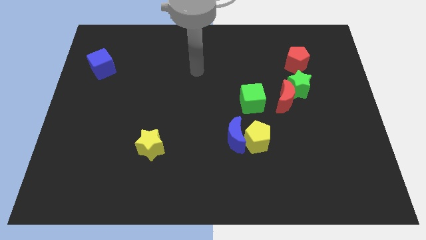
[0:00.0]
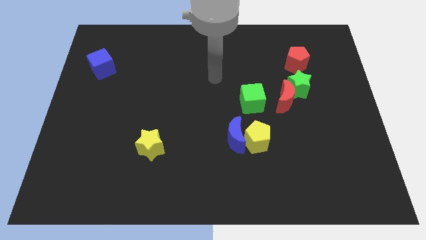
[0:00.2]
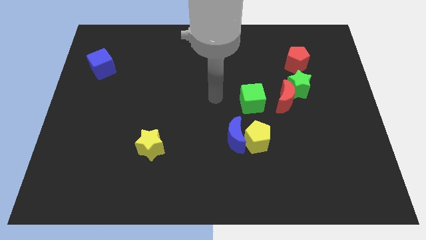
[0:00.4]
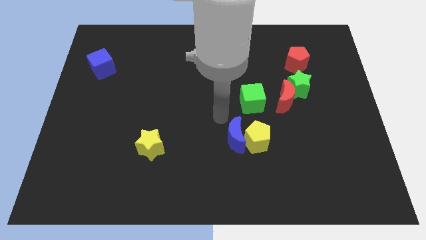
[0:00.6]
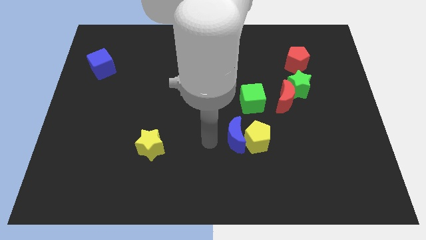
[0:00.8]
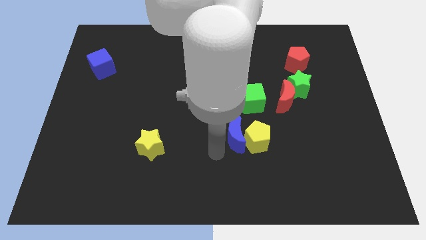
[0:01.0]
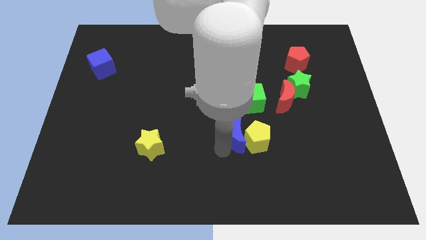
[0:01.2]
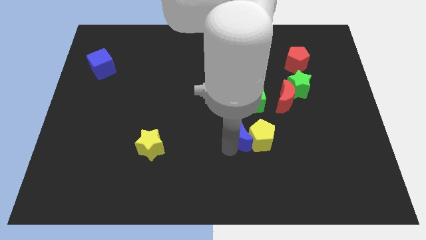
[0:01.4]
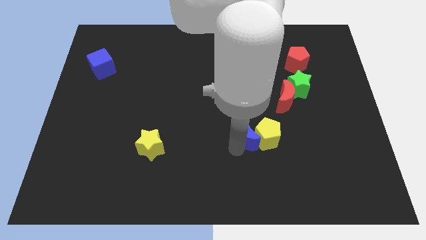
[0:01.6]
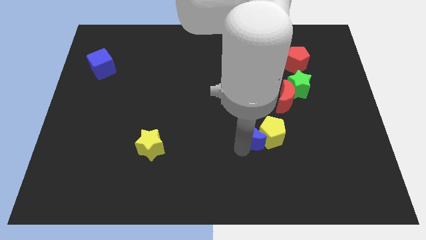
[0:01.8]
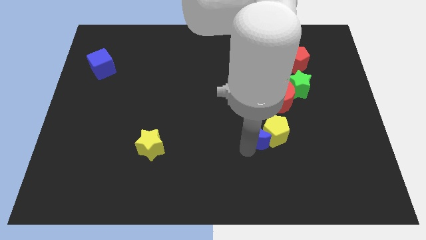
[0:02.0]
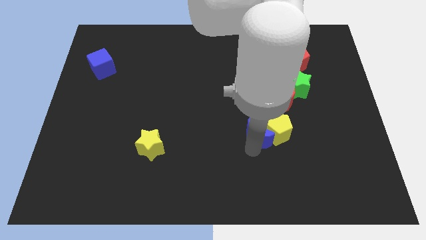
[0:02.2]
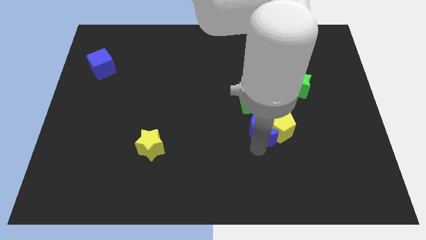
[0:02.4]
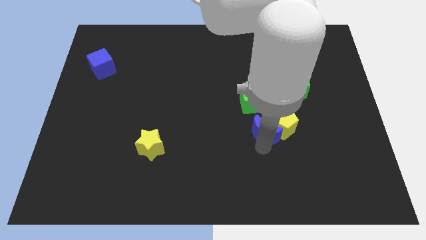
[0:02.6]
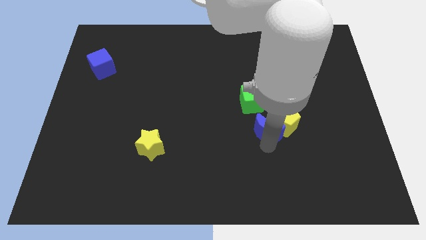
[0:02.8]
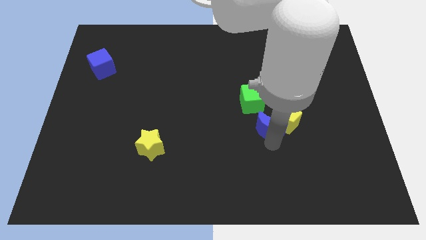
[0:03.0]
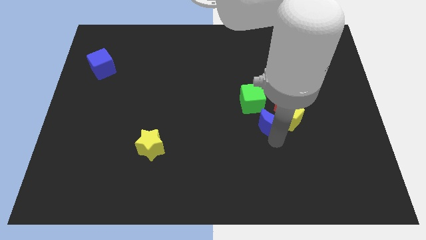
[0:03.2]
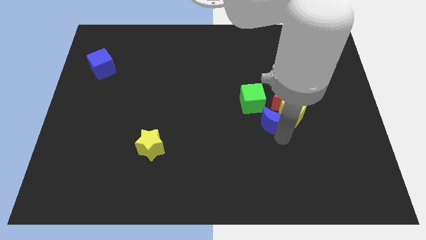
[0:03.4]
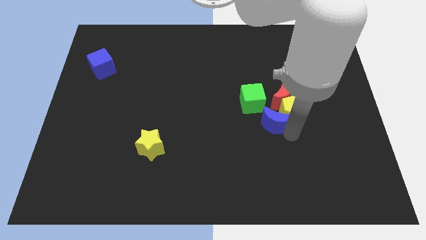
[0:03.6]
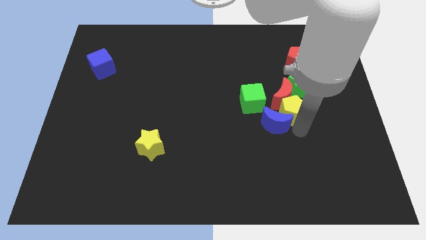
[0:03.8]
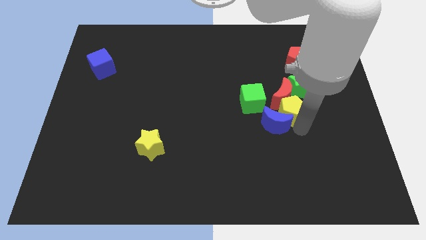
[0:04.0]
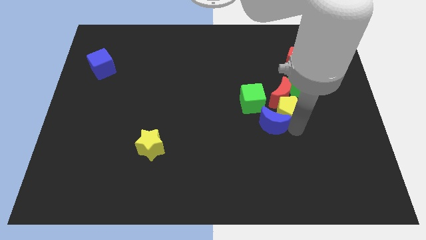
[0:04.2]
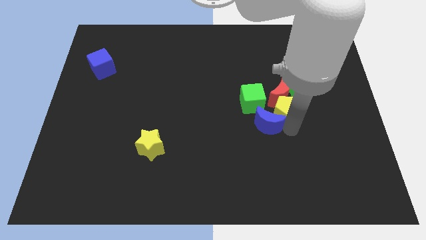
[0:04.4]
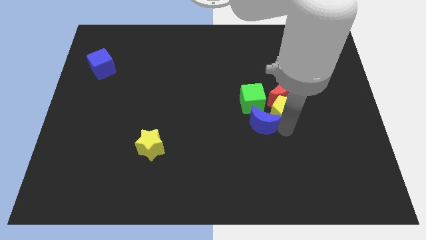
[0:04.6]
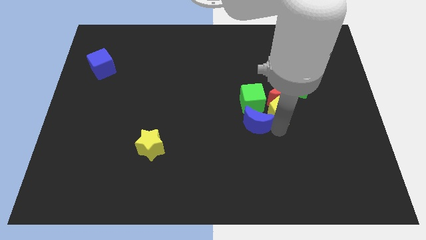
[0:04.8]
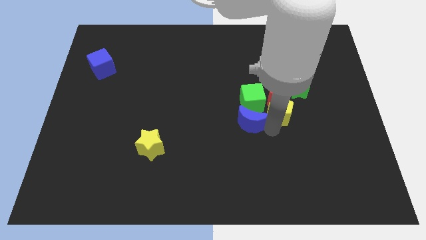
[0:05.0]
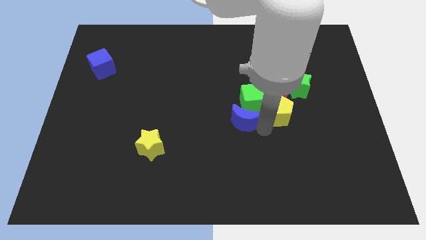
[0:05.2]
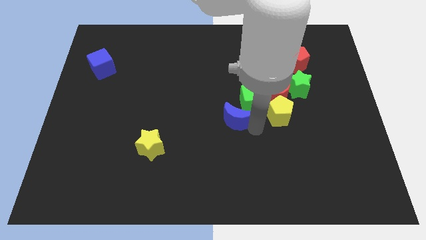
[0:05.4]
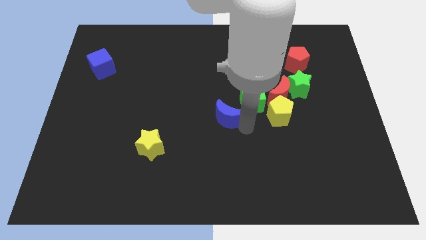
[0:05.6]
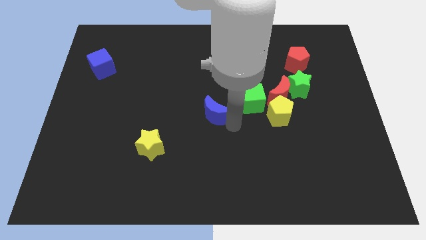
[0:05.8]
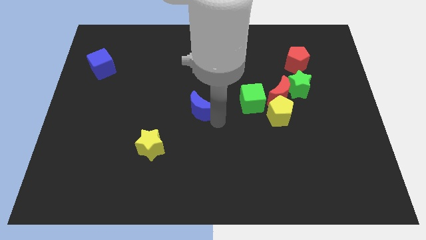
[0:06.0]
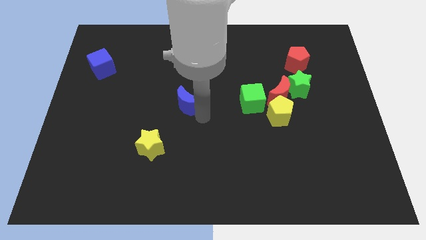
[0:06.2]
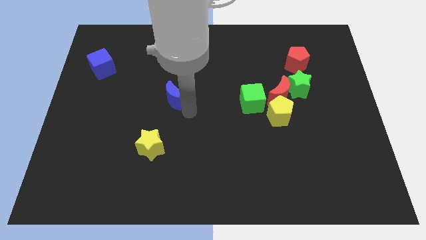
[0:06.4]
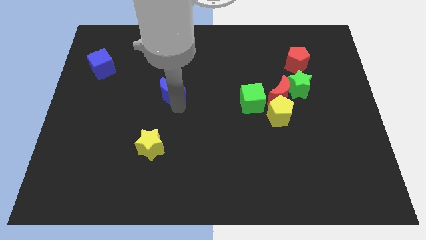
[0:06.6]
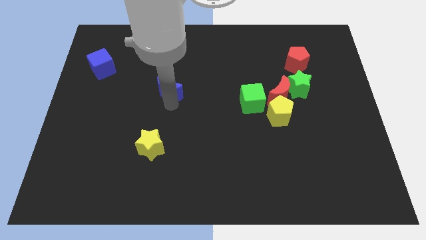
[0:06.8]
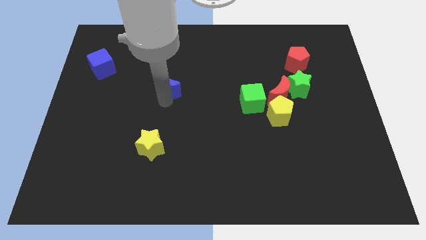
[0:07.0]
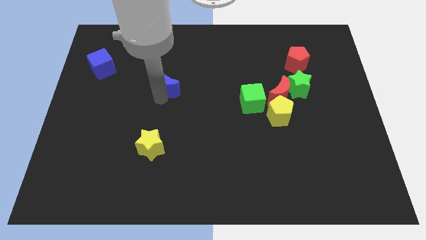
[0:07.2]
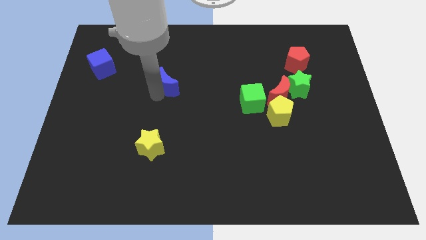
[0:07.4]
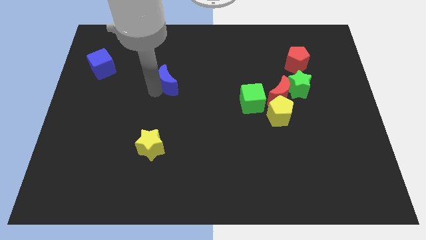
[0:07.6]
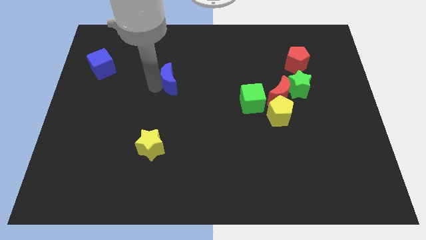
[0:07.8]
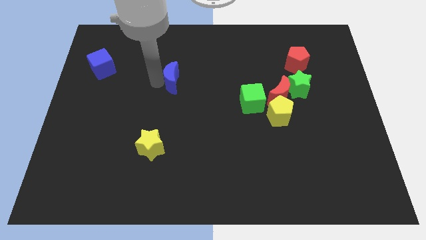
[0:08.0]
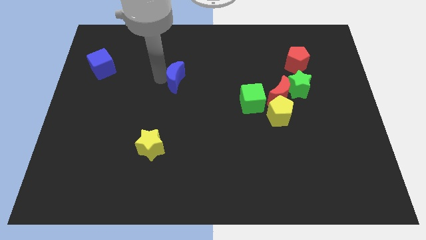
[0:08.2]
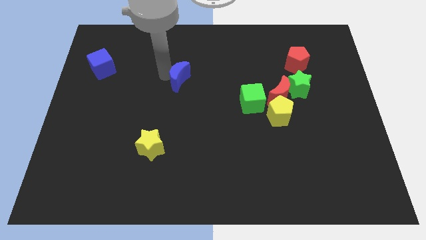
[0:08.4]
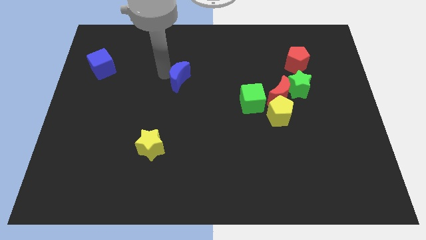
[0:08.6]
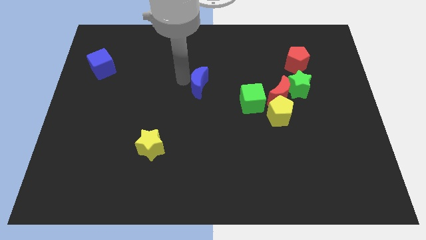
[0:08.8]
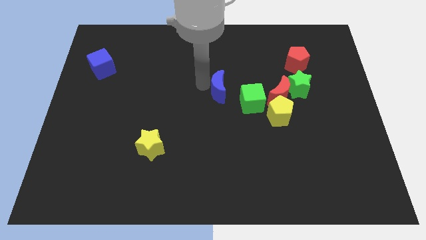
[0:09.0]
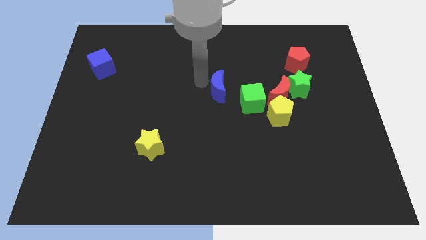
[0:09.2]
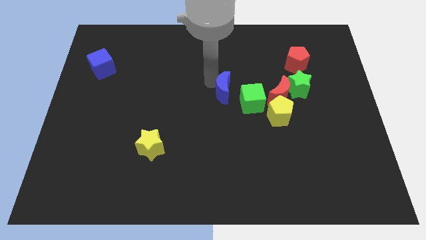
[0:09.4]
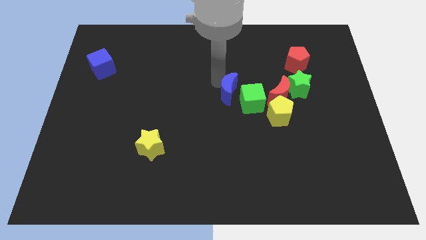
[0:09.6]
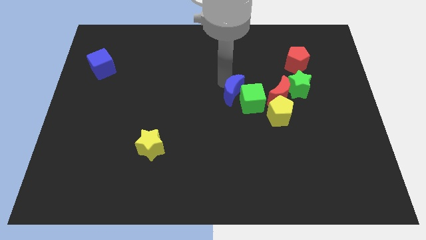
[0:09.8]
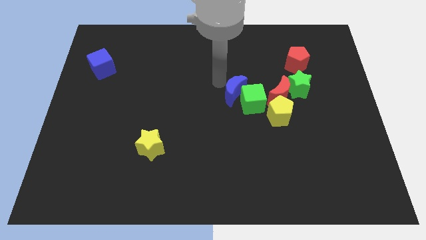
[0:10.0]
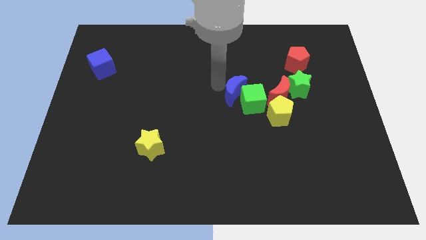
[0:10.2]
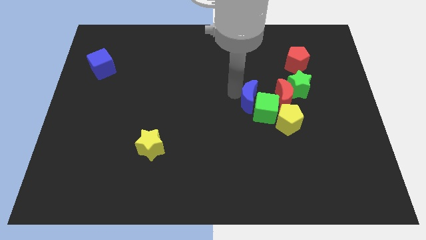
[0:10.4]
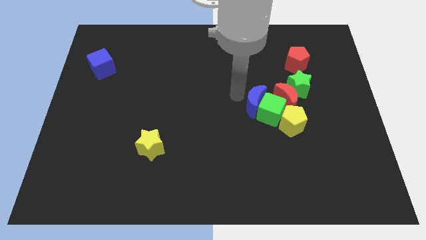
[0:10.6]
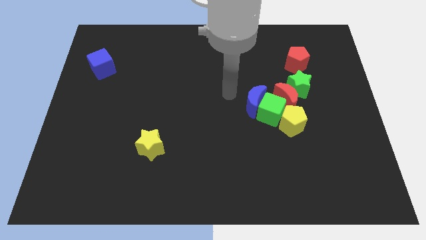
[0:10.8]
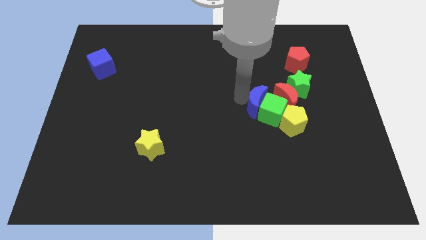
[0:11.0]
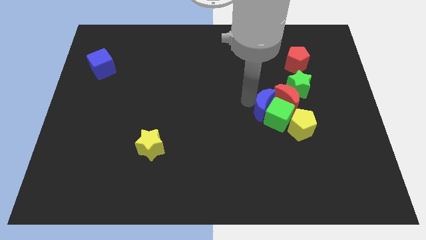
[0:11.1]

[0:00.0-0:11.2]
slide the blue moon next to the red moon

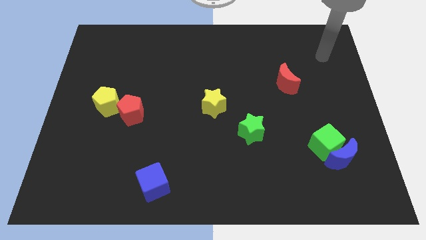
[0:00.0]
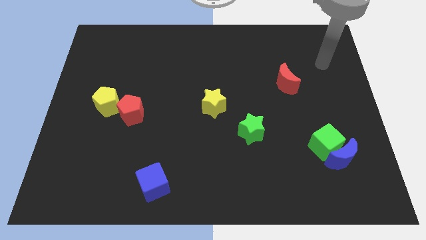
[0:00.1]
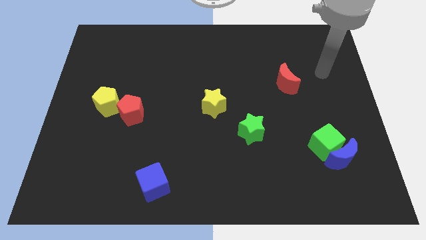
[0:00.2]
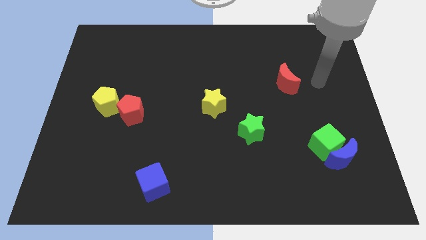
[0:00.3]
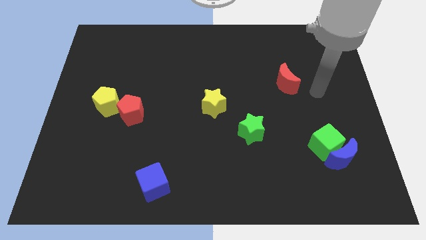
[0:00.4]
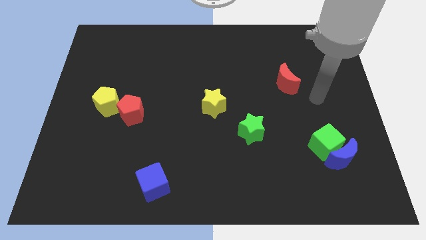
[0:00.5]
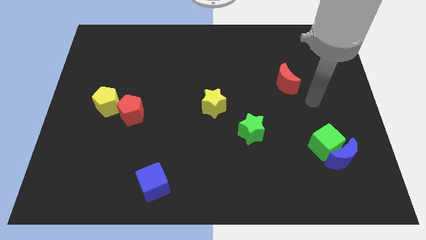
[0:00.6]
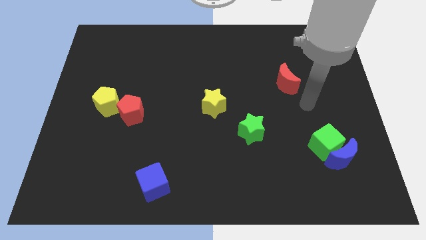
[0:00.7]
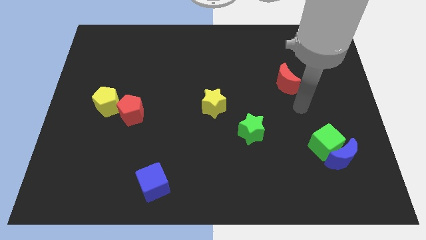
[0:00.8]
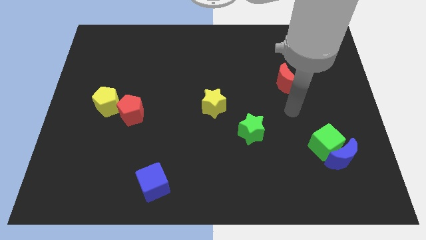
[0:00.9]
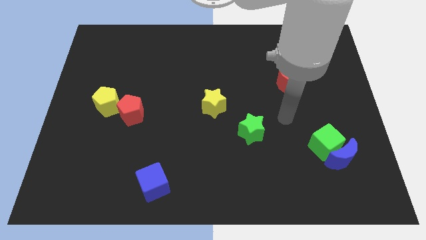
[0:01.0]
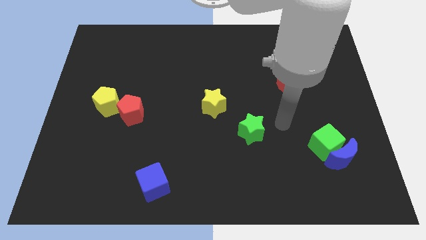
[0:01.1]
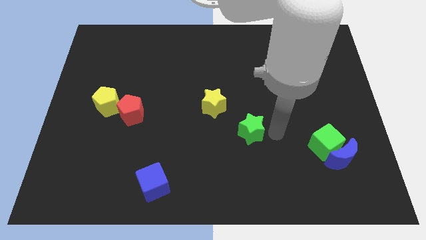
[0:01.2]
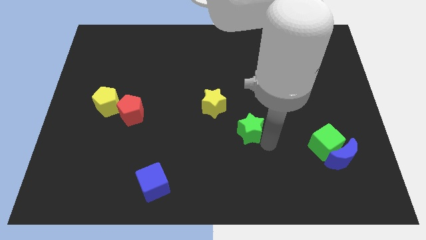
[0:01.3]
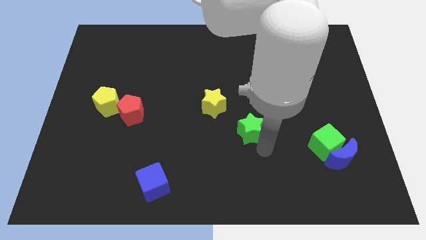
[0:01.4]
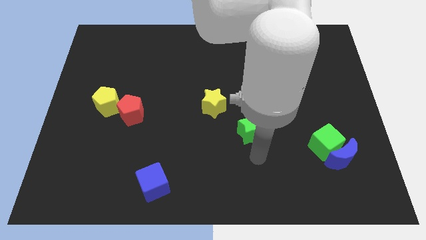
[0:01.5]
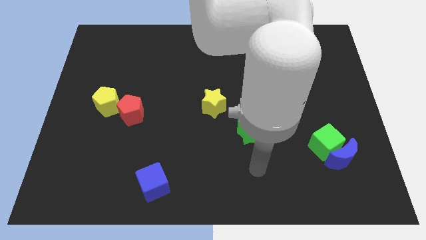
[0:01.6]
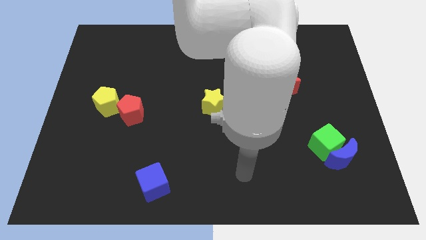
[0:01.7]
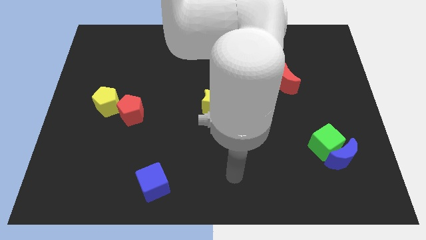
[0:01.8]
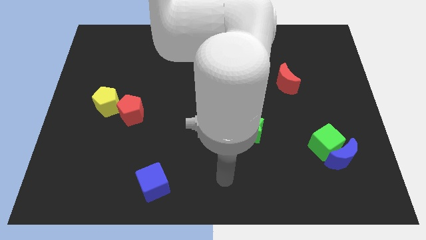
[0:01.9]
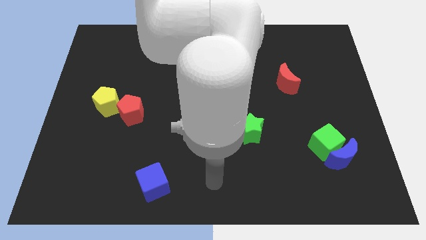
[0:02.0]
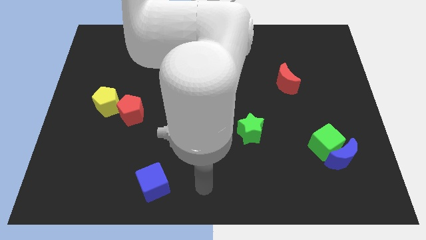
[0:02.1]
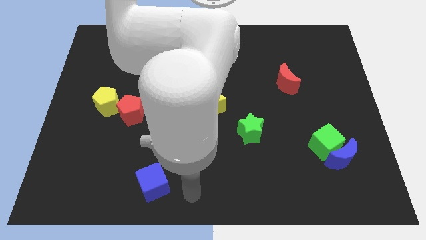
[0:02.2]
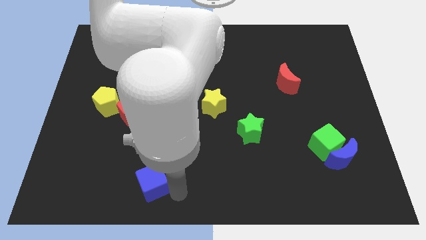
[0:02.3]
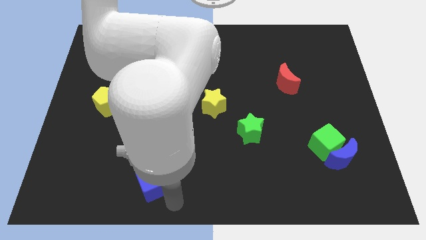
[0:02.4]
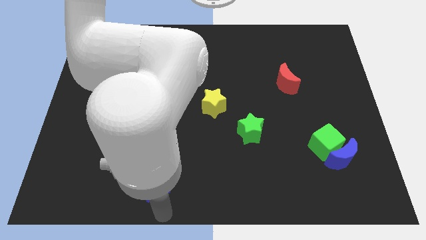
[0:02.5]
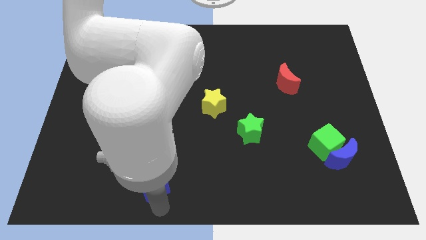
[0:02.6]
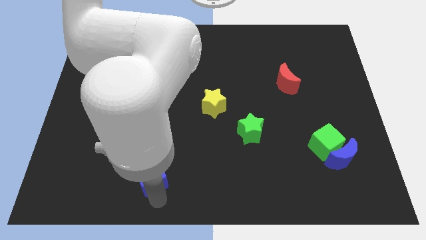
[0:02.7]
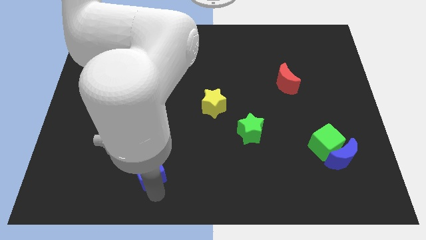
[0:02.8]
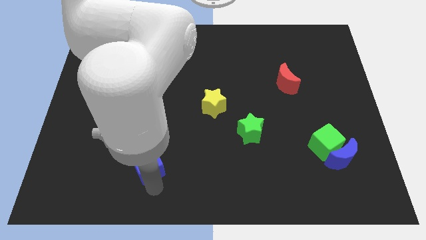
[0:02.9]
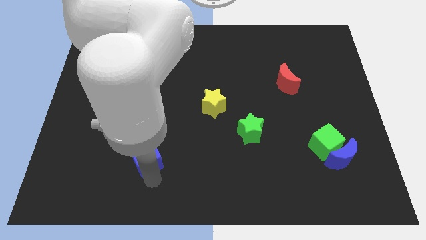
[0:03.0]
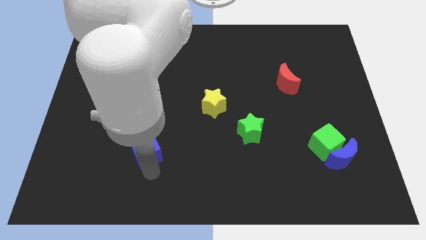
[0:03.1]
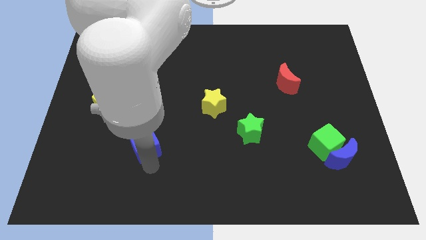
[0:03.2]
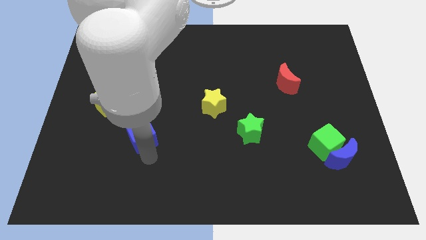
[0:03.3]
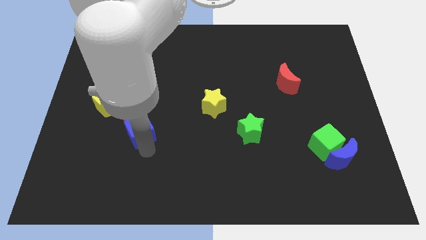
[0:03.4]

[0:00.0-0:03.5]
slide the blue cube close to the red pentagon
